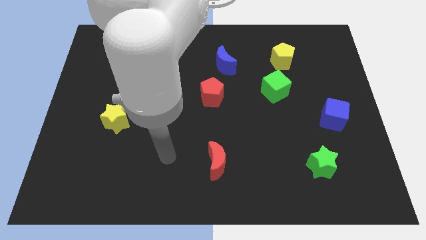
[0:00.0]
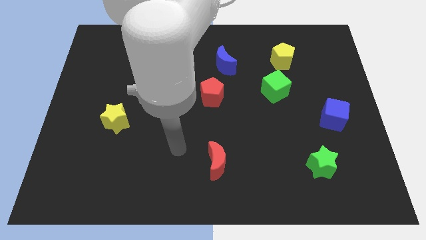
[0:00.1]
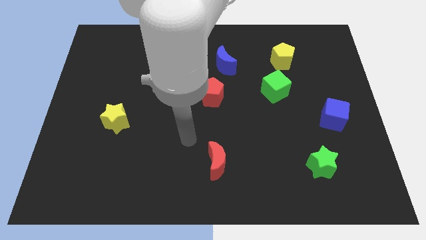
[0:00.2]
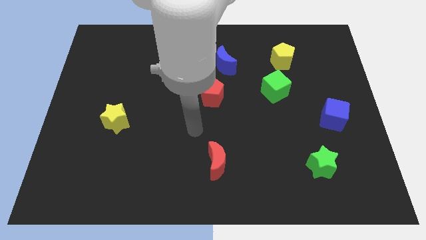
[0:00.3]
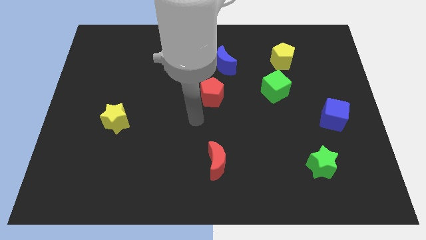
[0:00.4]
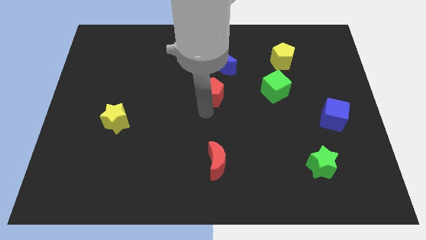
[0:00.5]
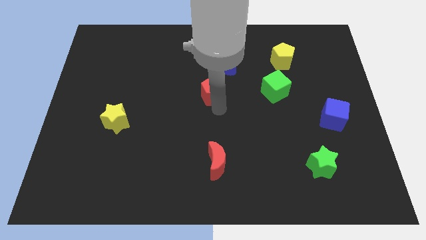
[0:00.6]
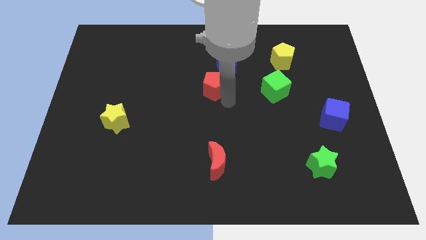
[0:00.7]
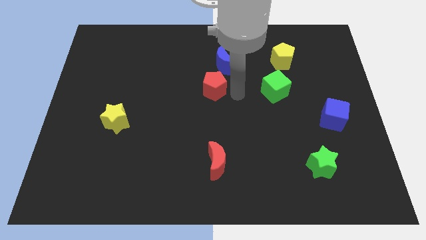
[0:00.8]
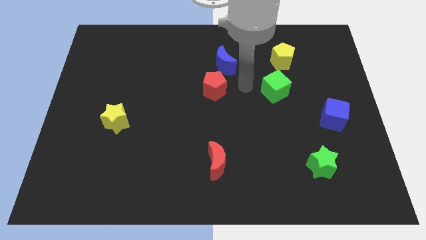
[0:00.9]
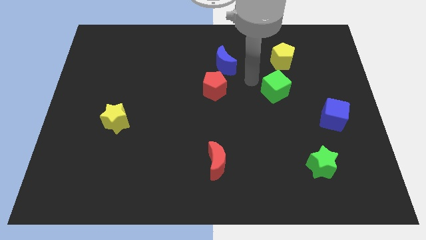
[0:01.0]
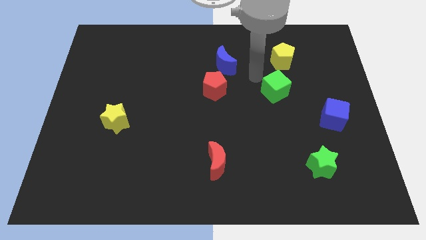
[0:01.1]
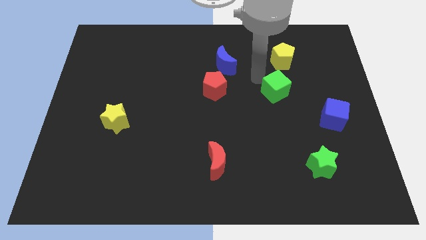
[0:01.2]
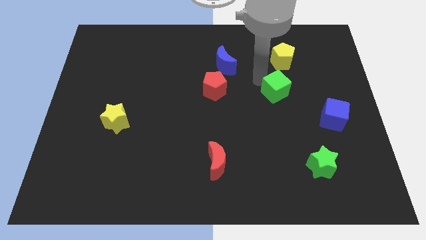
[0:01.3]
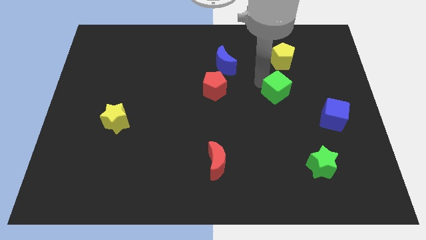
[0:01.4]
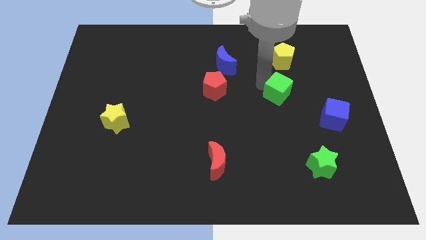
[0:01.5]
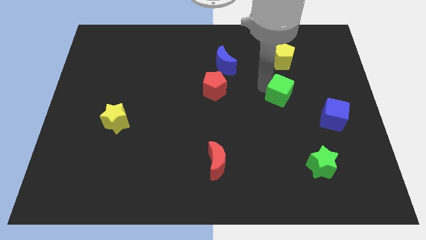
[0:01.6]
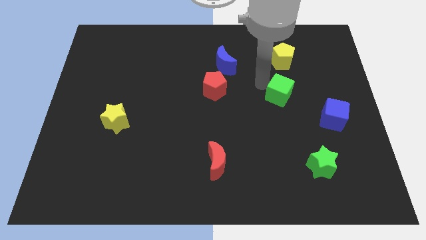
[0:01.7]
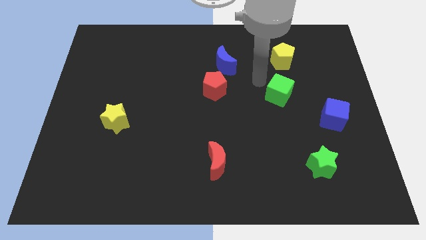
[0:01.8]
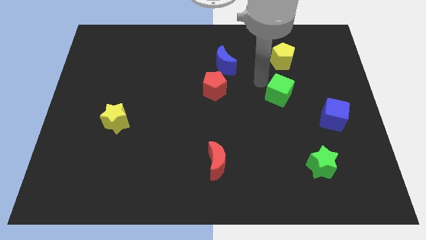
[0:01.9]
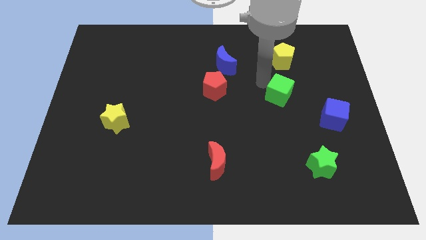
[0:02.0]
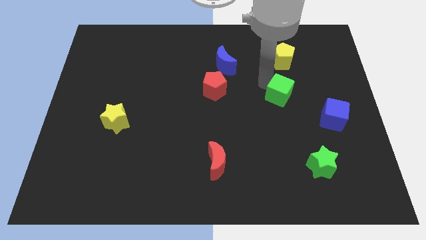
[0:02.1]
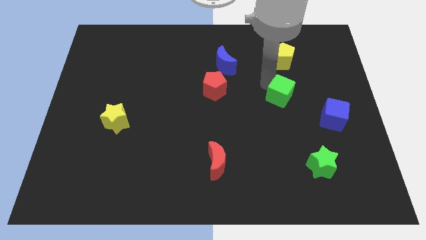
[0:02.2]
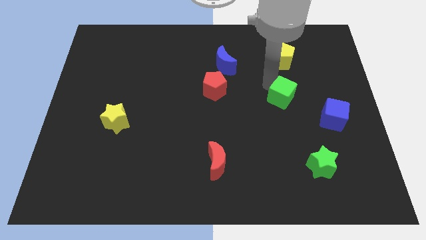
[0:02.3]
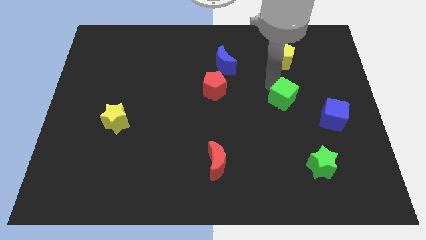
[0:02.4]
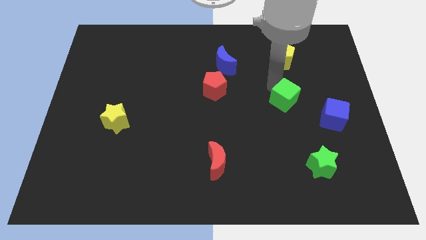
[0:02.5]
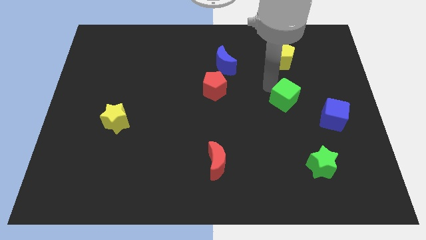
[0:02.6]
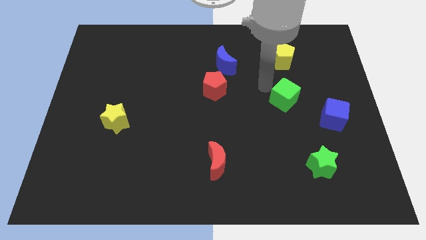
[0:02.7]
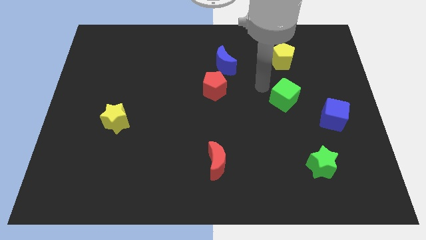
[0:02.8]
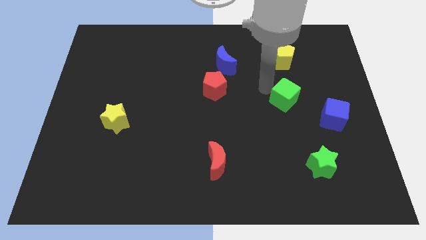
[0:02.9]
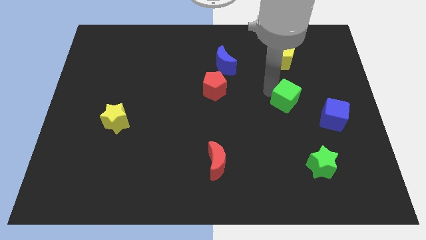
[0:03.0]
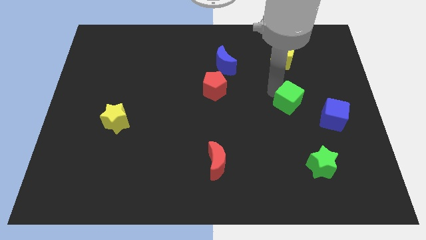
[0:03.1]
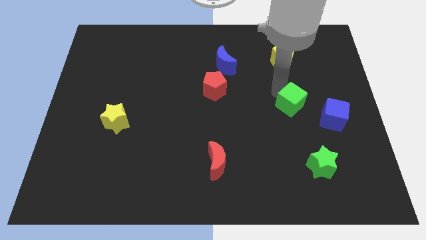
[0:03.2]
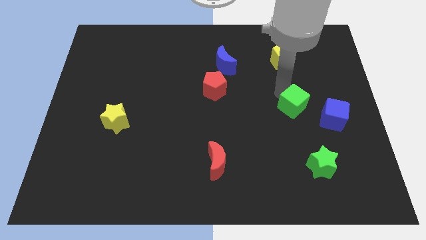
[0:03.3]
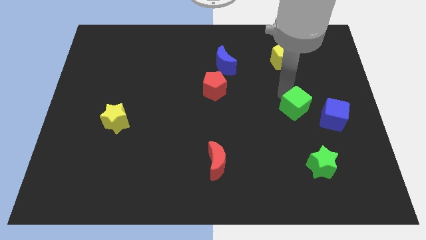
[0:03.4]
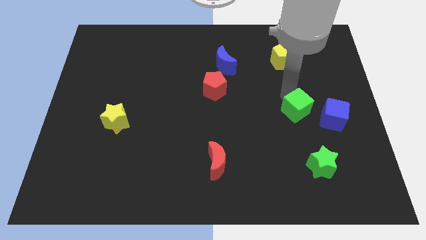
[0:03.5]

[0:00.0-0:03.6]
push the green cube somewhat downwards and to the right

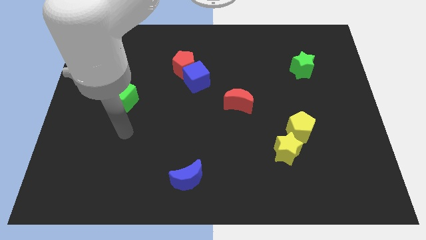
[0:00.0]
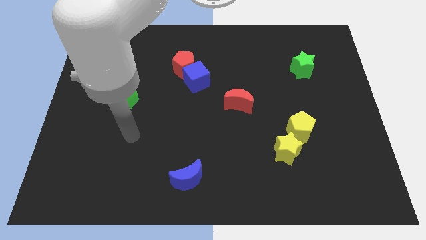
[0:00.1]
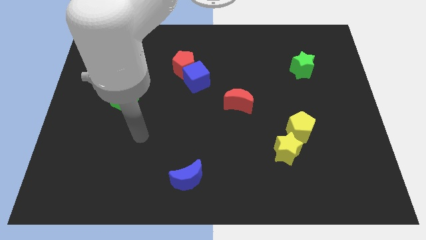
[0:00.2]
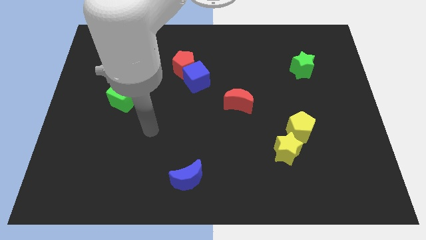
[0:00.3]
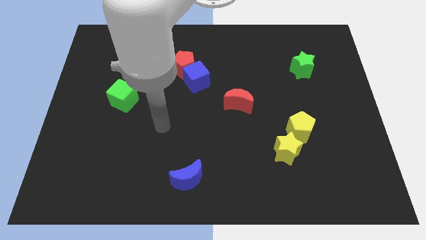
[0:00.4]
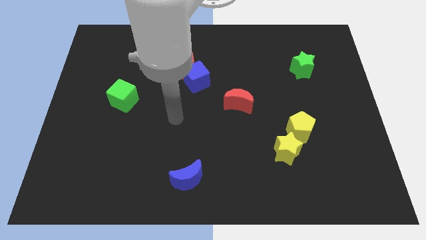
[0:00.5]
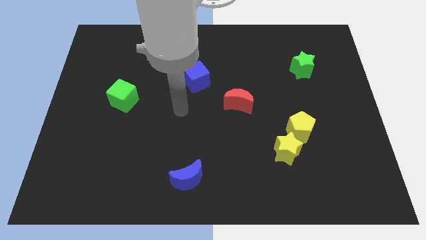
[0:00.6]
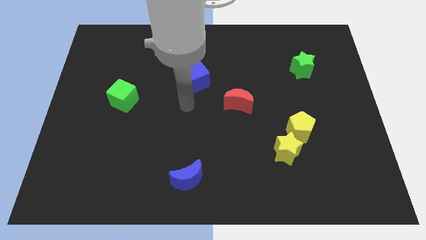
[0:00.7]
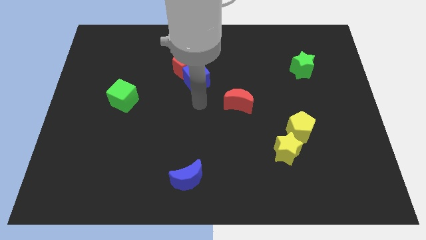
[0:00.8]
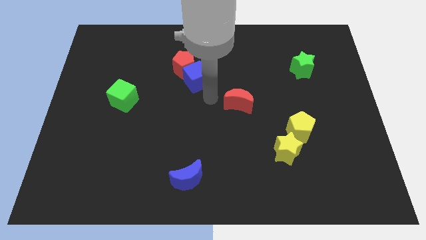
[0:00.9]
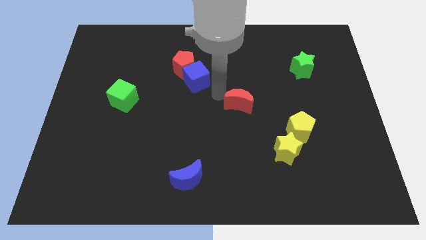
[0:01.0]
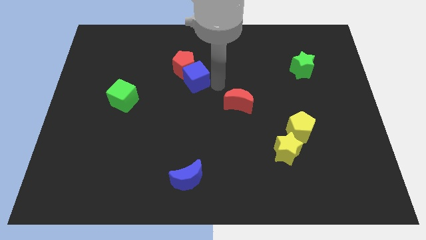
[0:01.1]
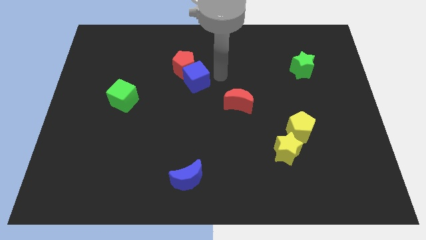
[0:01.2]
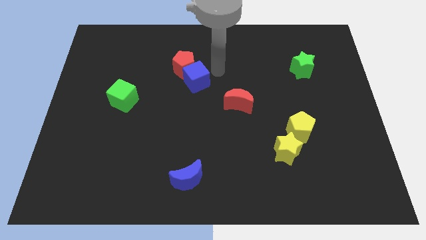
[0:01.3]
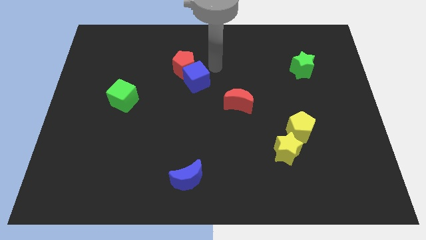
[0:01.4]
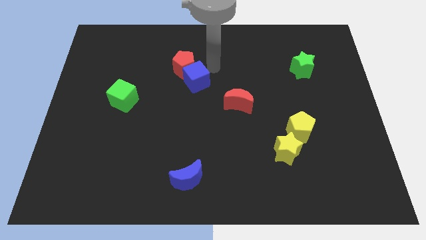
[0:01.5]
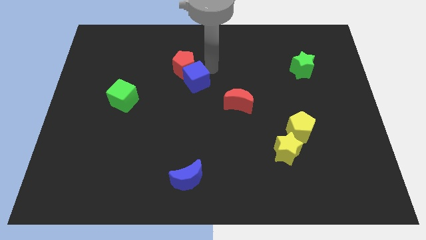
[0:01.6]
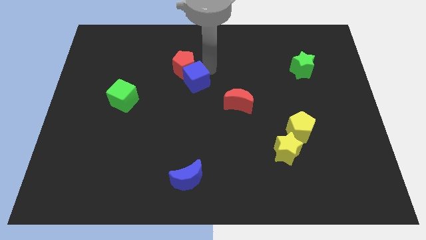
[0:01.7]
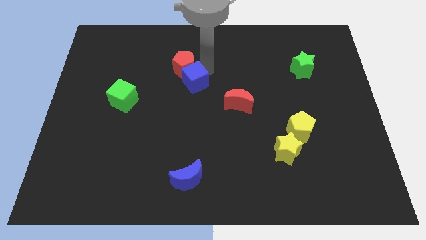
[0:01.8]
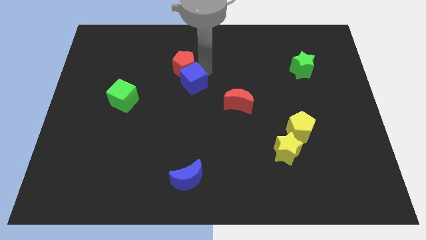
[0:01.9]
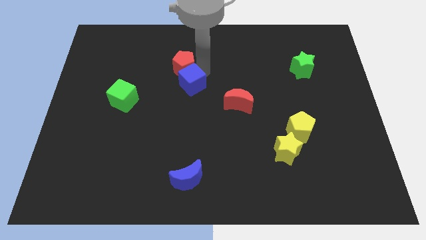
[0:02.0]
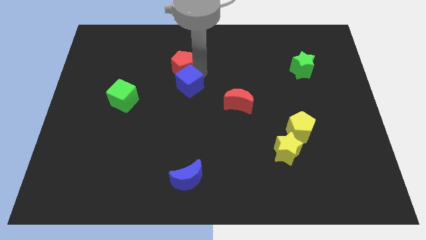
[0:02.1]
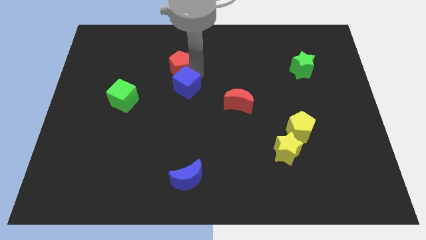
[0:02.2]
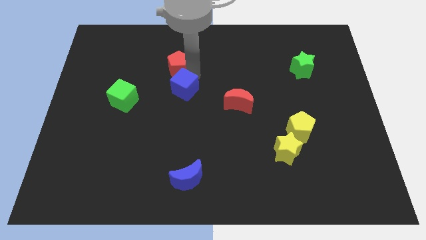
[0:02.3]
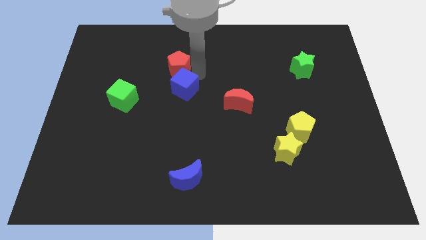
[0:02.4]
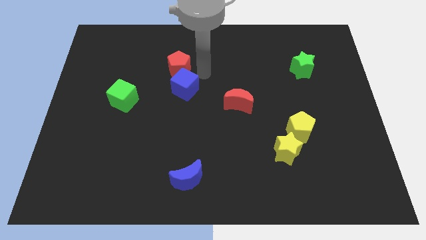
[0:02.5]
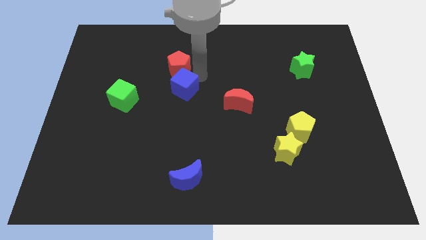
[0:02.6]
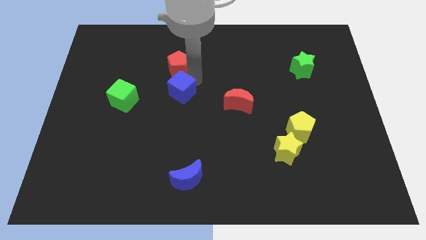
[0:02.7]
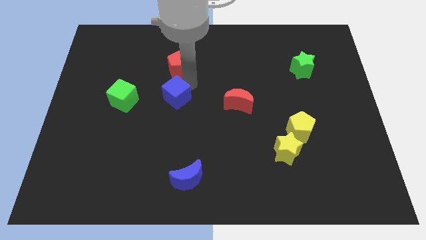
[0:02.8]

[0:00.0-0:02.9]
slightly push the blue cube diagonally down and to the left

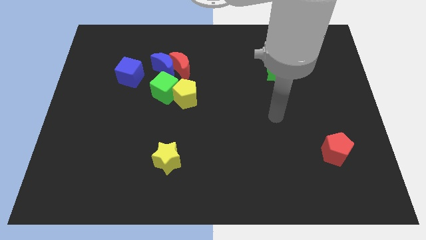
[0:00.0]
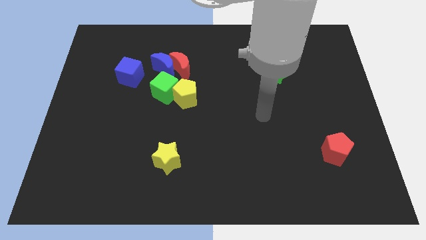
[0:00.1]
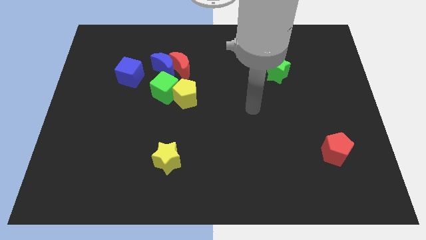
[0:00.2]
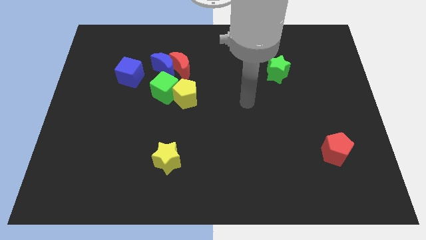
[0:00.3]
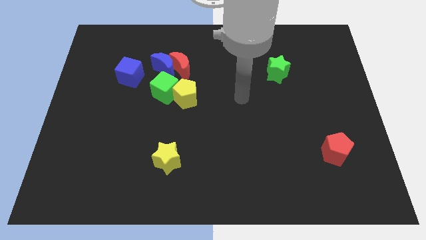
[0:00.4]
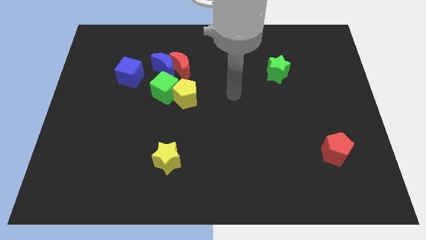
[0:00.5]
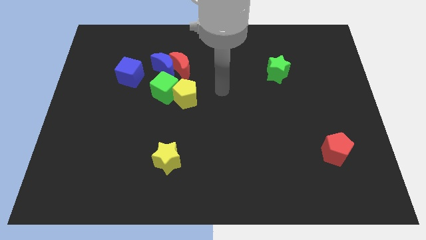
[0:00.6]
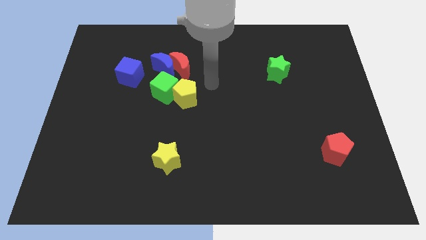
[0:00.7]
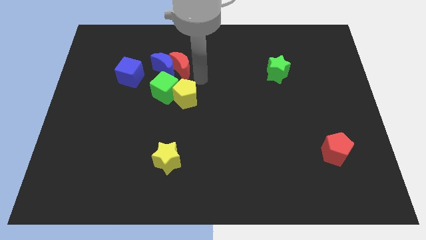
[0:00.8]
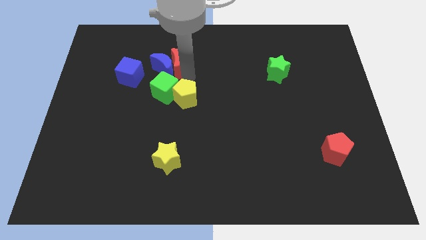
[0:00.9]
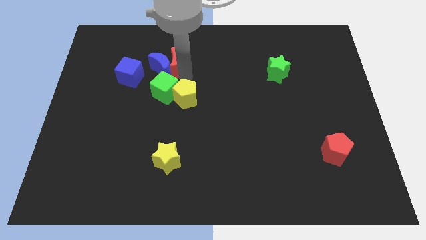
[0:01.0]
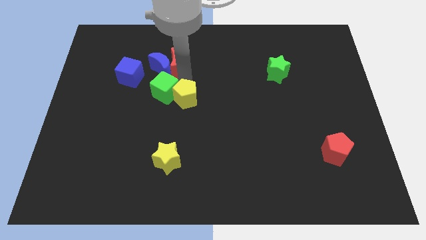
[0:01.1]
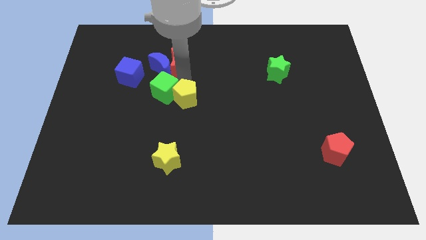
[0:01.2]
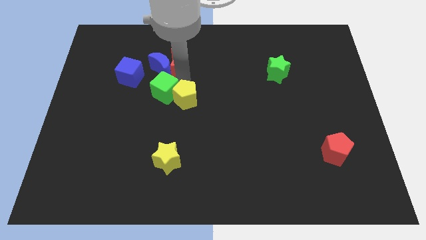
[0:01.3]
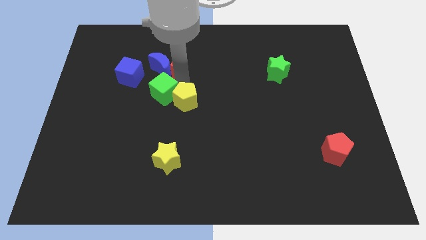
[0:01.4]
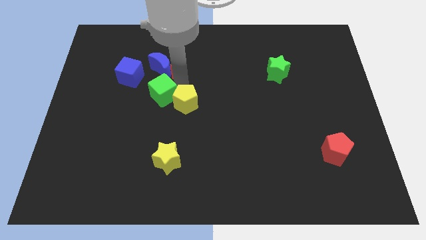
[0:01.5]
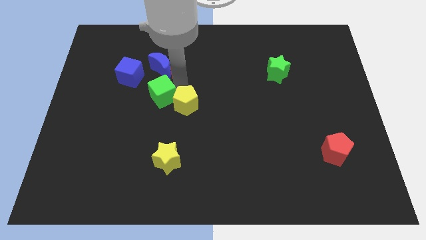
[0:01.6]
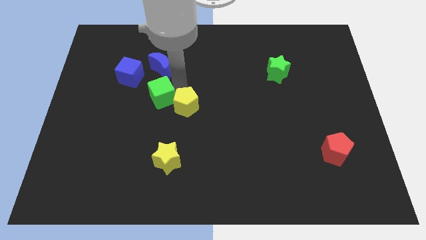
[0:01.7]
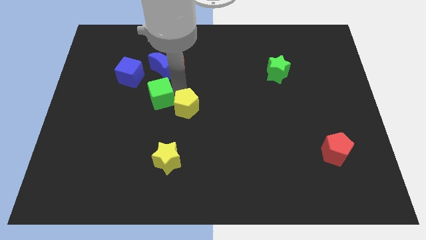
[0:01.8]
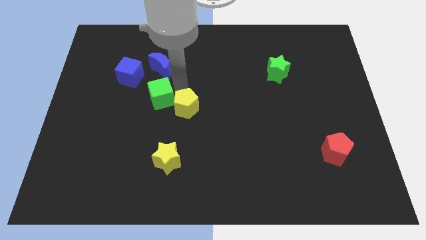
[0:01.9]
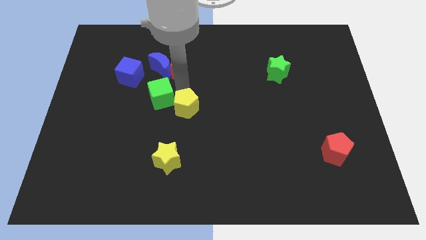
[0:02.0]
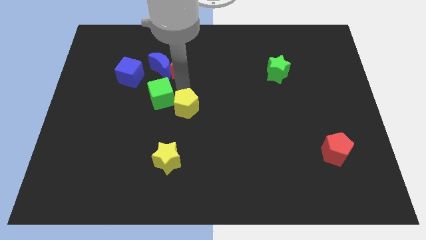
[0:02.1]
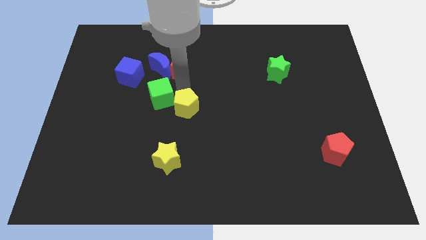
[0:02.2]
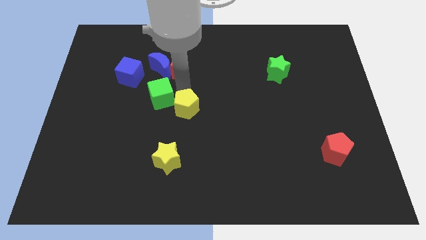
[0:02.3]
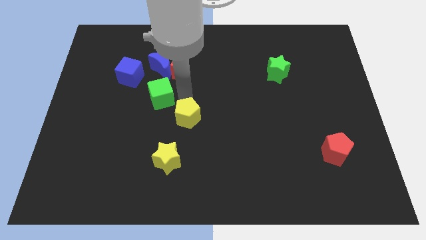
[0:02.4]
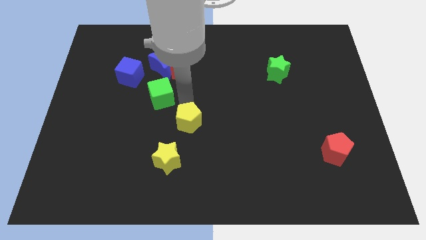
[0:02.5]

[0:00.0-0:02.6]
push the yellow pentagon down somewhat
